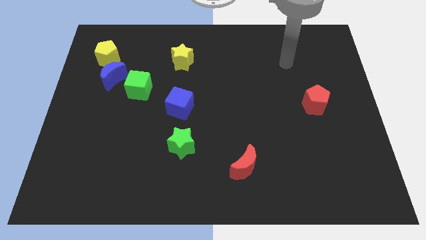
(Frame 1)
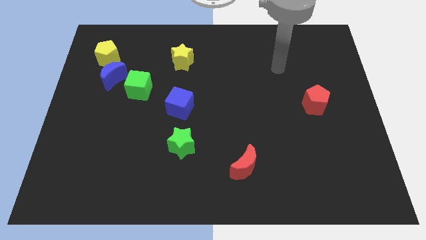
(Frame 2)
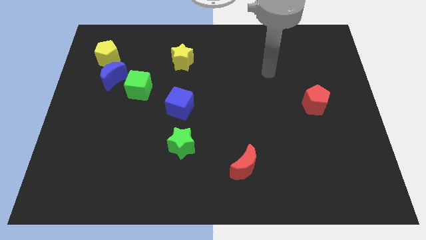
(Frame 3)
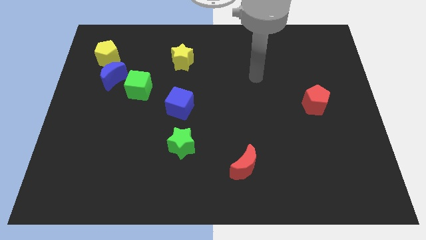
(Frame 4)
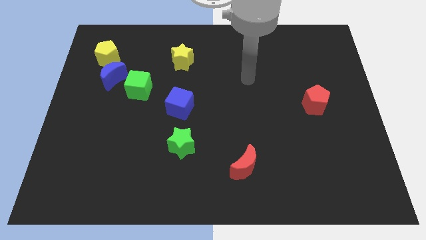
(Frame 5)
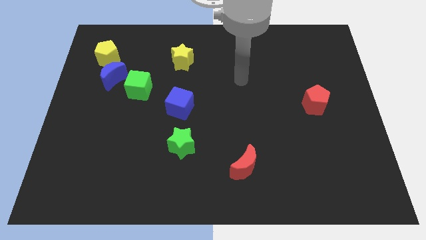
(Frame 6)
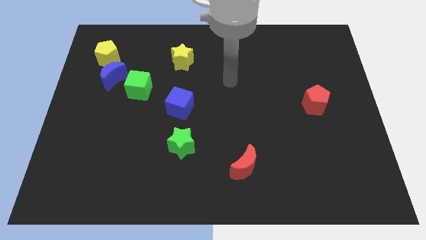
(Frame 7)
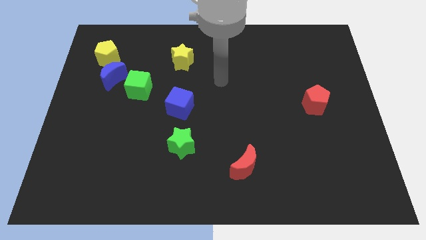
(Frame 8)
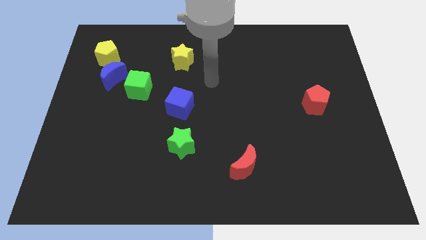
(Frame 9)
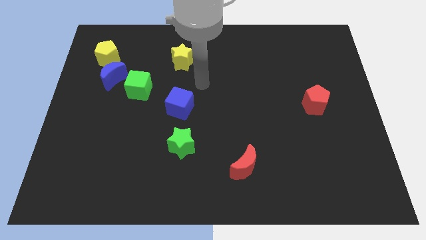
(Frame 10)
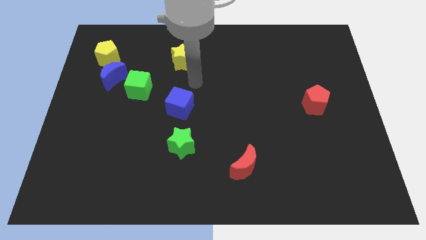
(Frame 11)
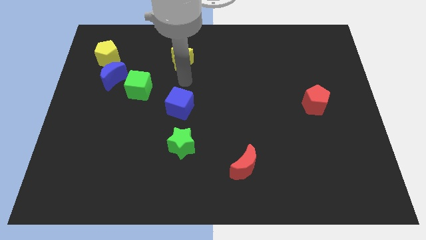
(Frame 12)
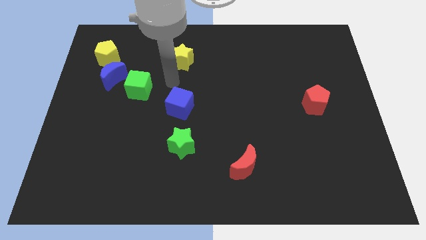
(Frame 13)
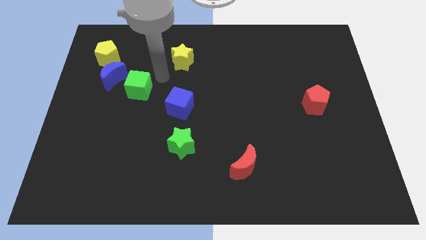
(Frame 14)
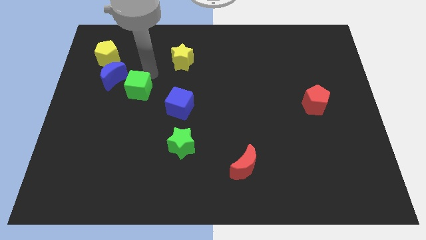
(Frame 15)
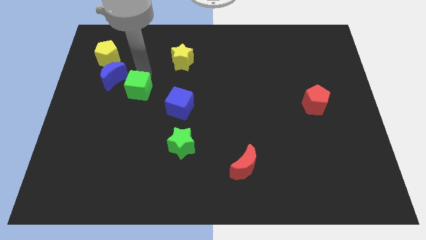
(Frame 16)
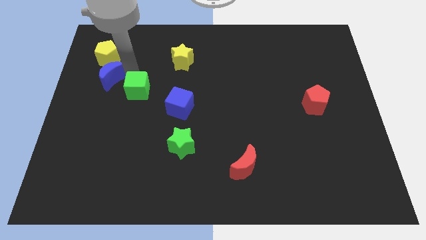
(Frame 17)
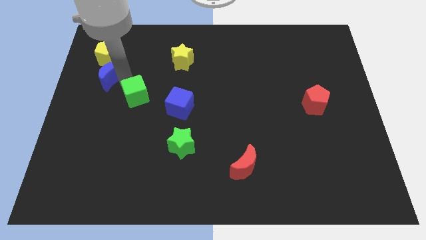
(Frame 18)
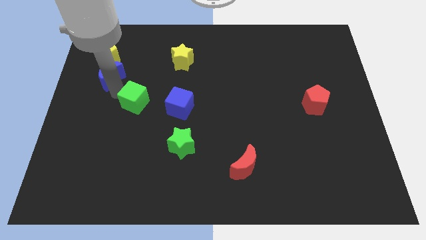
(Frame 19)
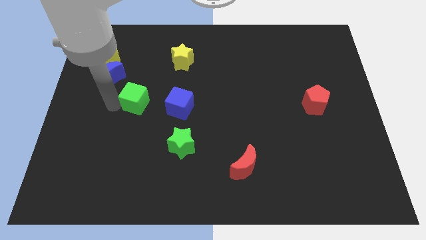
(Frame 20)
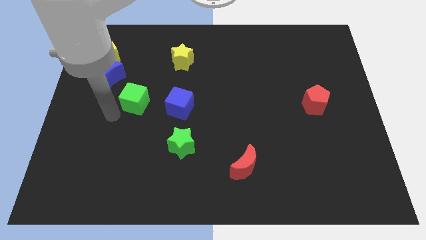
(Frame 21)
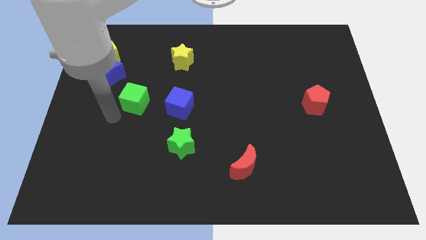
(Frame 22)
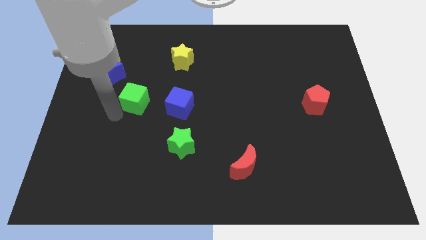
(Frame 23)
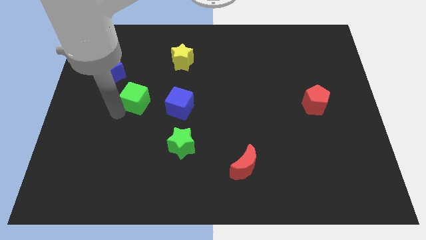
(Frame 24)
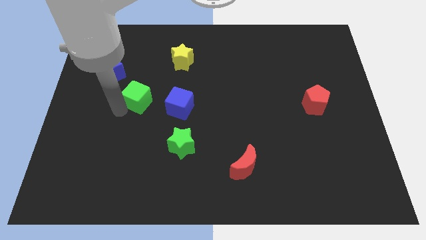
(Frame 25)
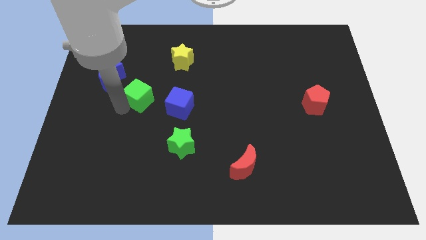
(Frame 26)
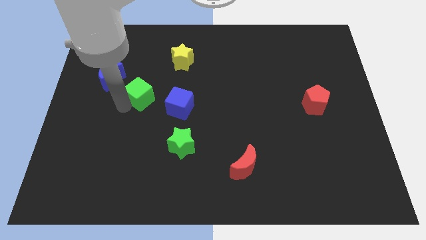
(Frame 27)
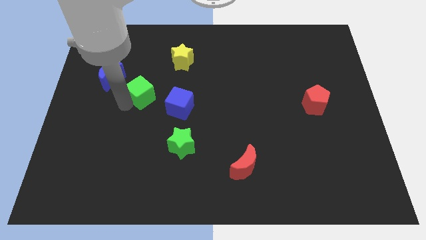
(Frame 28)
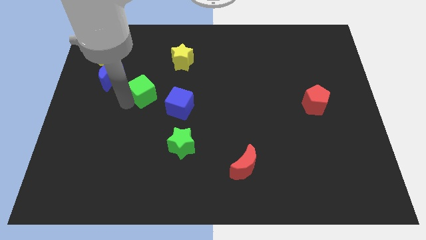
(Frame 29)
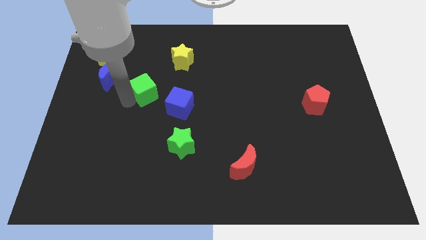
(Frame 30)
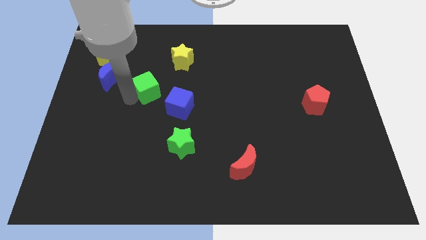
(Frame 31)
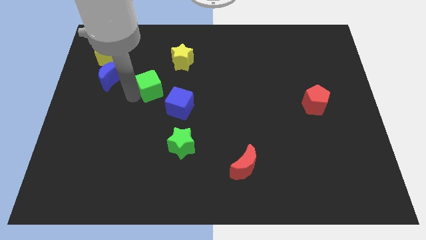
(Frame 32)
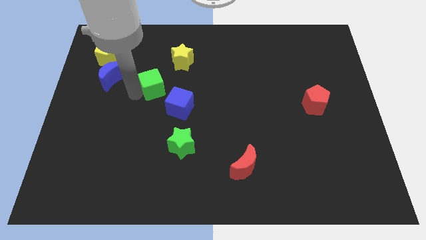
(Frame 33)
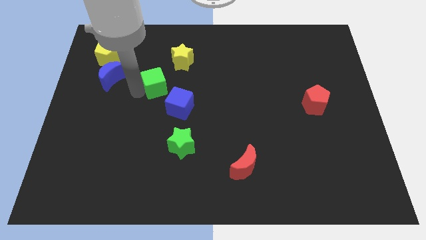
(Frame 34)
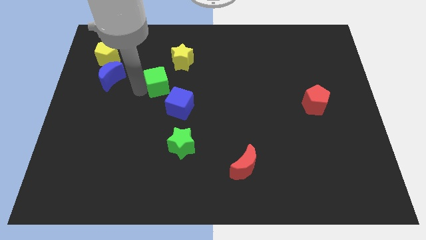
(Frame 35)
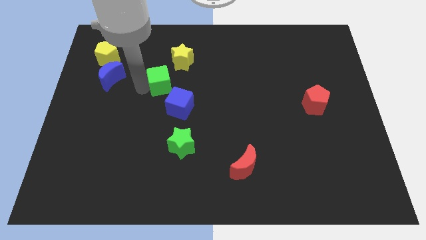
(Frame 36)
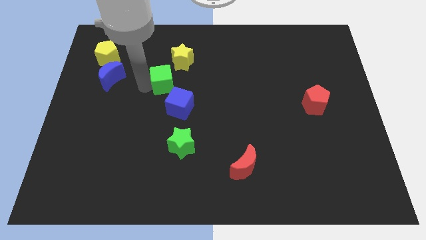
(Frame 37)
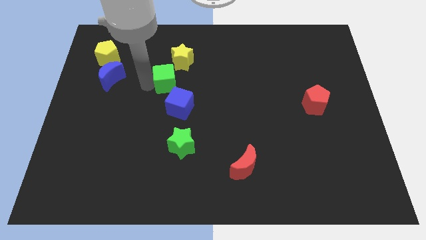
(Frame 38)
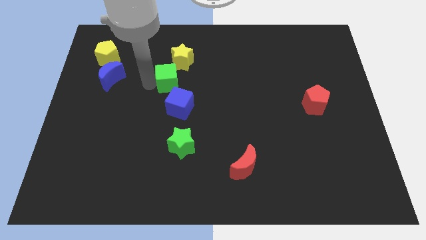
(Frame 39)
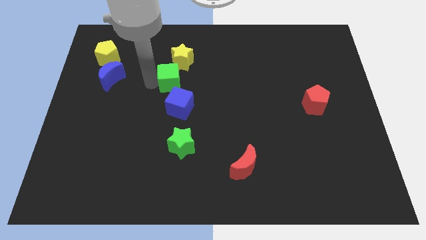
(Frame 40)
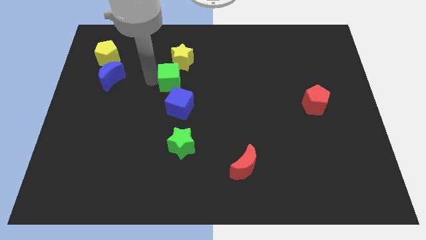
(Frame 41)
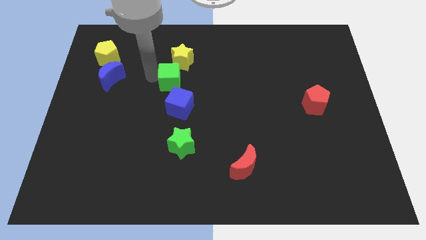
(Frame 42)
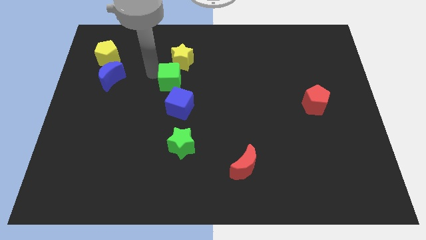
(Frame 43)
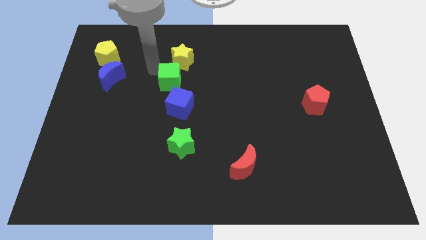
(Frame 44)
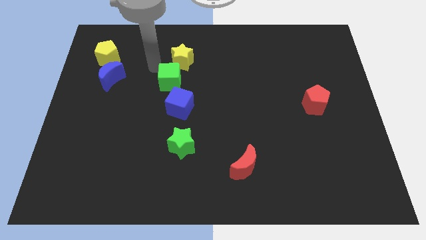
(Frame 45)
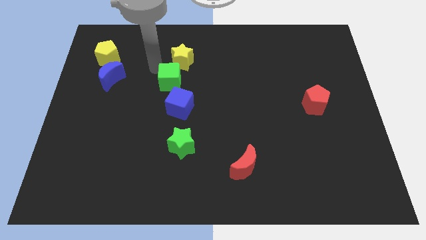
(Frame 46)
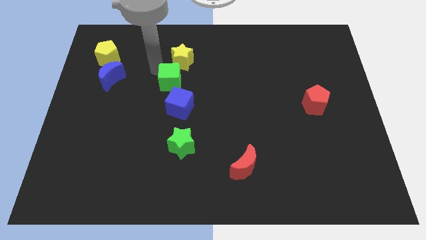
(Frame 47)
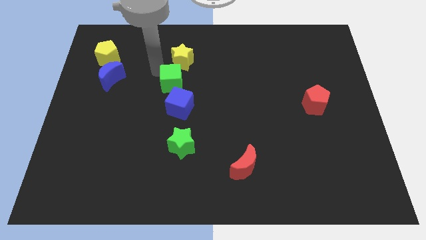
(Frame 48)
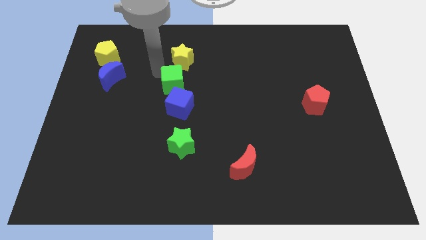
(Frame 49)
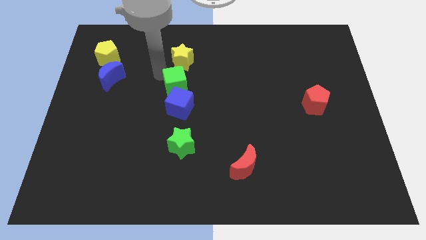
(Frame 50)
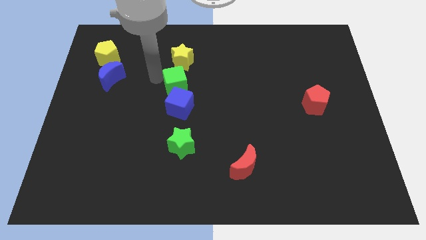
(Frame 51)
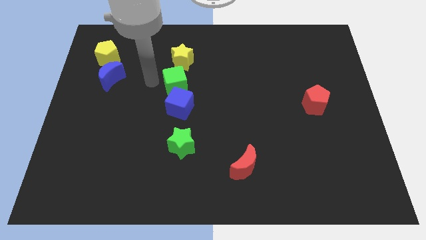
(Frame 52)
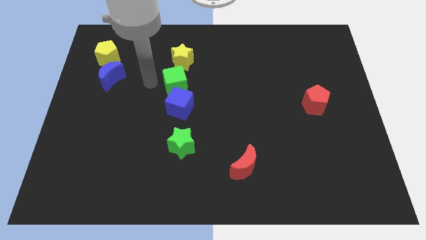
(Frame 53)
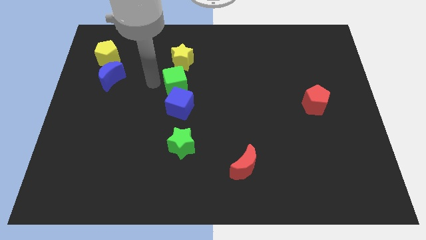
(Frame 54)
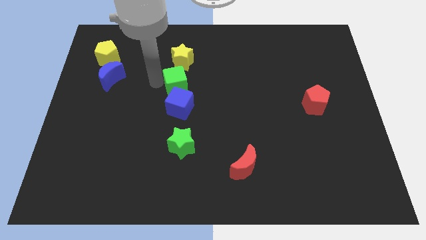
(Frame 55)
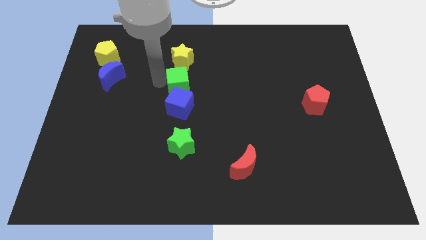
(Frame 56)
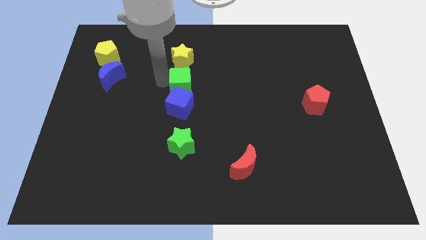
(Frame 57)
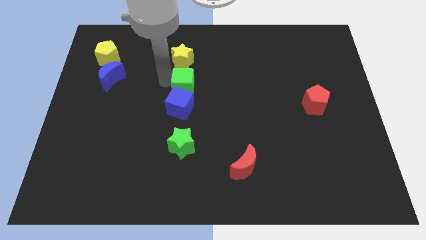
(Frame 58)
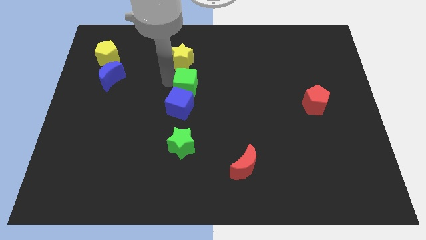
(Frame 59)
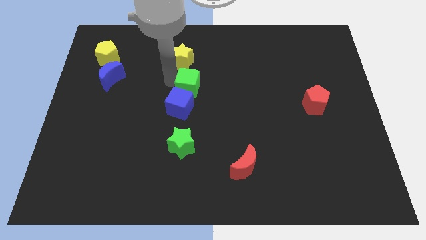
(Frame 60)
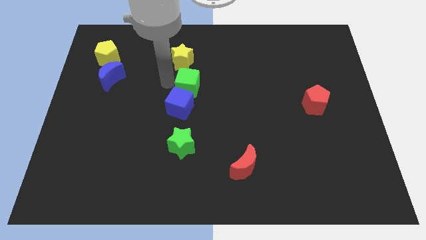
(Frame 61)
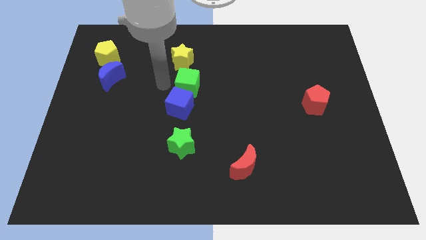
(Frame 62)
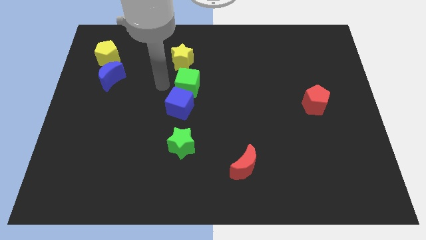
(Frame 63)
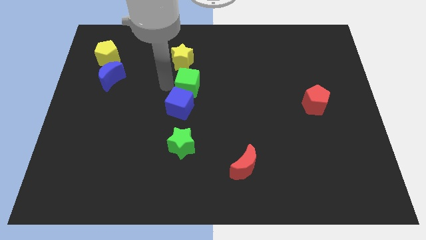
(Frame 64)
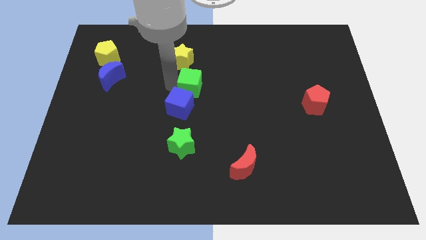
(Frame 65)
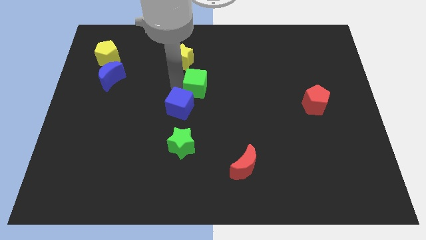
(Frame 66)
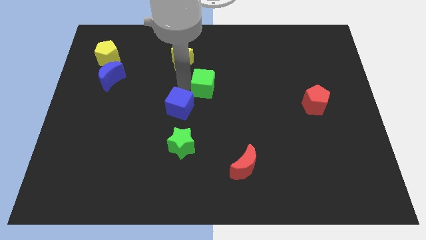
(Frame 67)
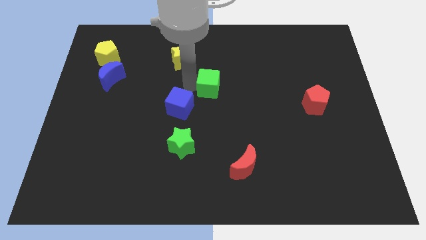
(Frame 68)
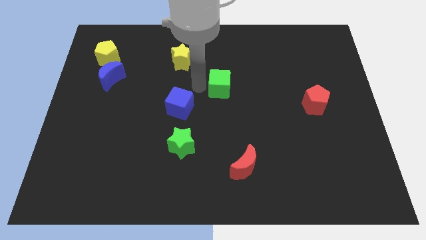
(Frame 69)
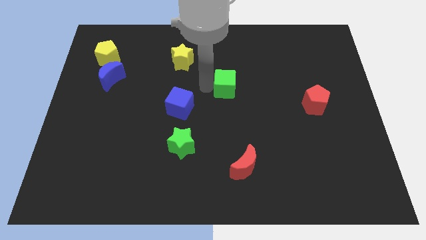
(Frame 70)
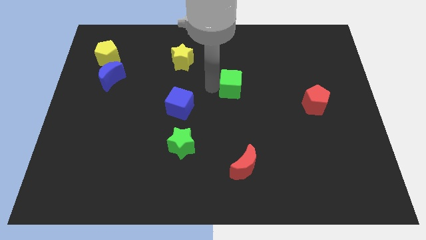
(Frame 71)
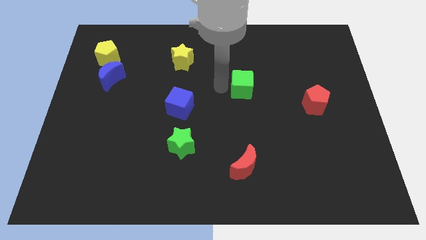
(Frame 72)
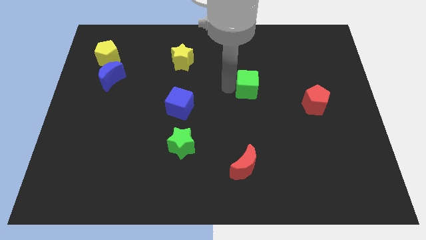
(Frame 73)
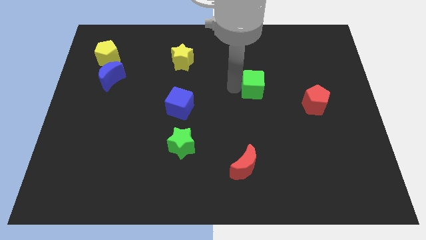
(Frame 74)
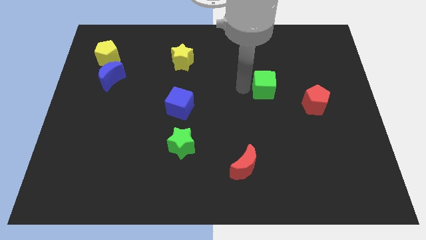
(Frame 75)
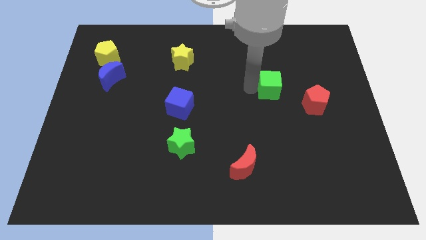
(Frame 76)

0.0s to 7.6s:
put the green cube diagonally up and to the left of the red pentagon
